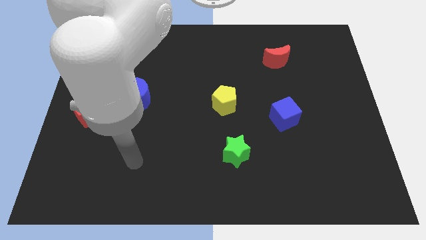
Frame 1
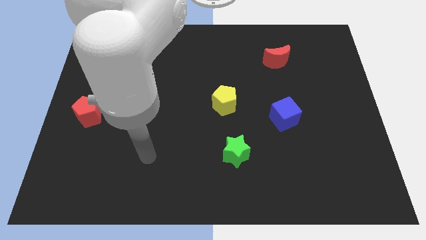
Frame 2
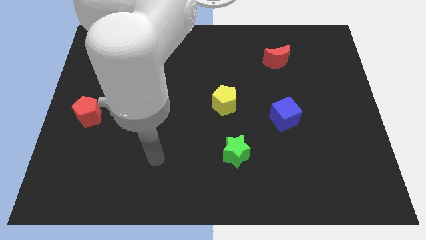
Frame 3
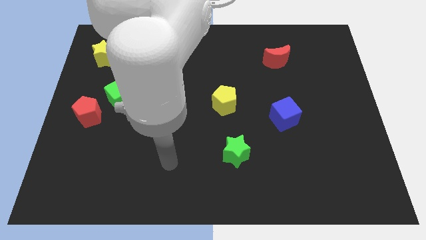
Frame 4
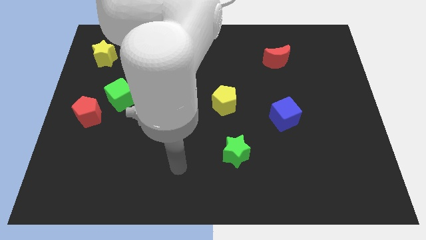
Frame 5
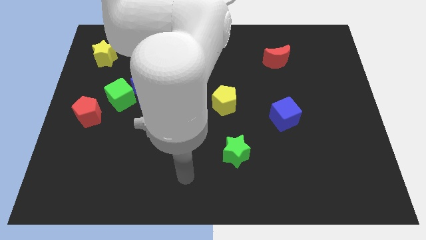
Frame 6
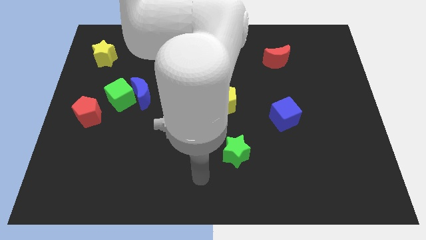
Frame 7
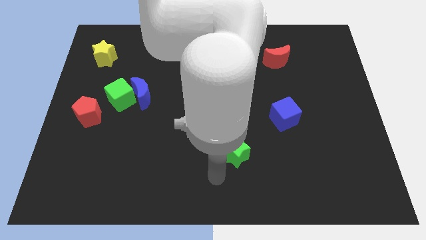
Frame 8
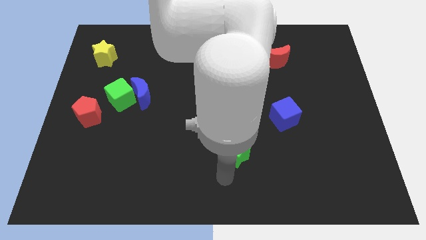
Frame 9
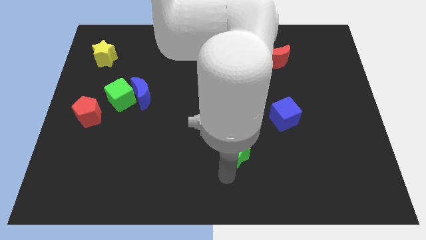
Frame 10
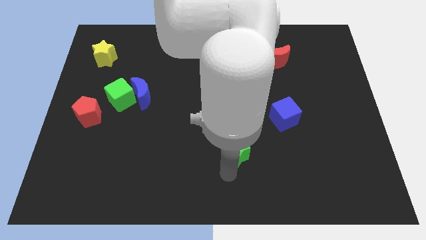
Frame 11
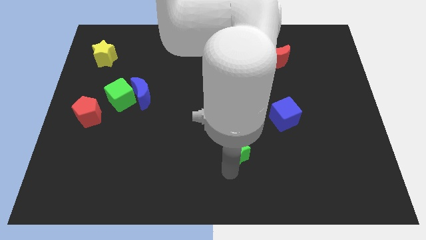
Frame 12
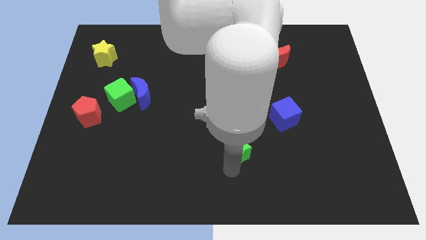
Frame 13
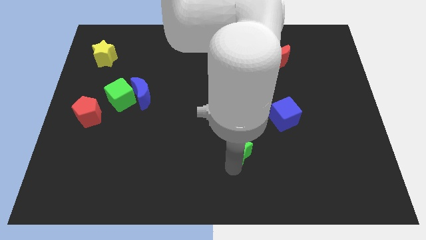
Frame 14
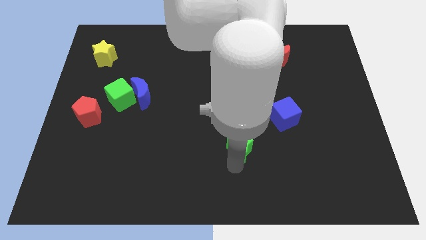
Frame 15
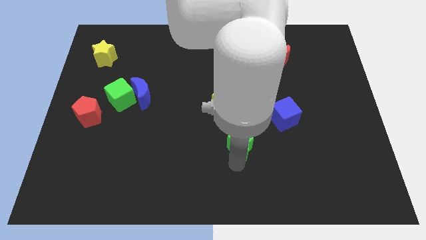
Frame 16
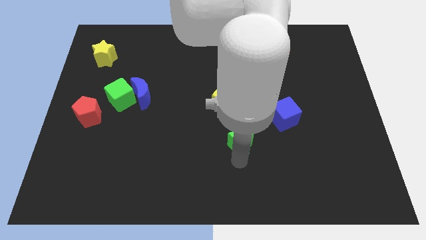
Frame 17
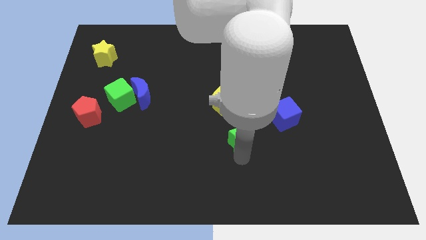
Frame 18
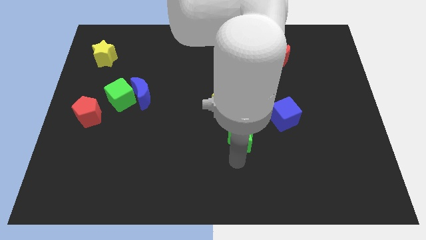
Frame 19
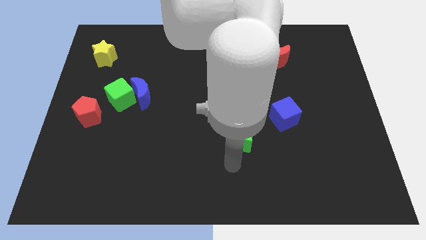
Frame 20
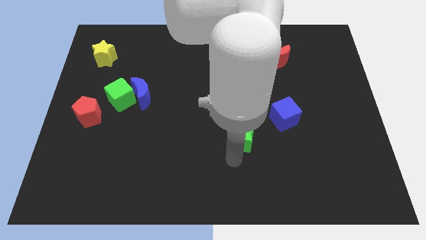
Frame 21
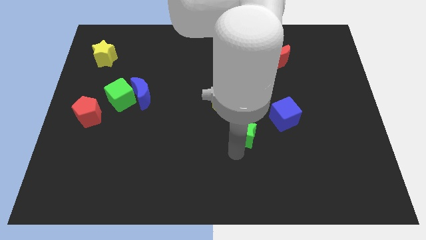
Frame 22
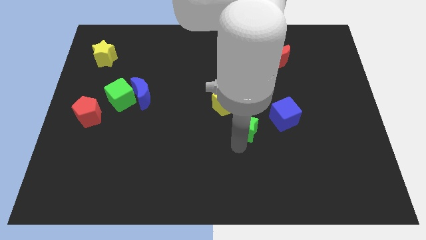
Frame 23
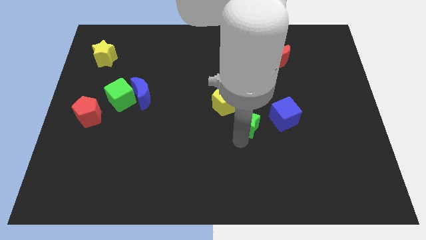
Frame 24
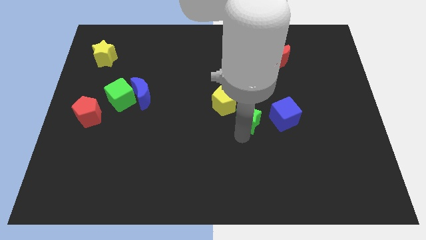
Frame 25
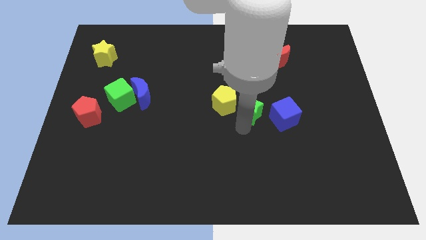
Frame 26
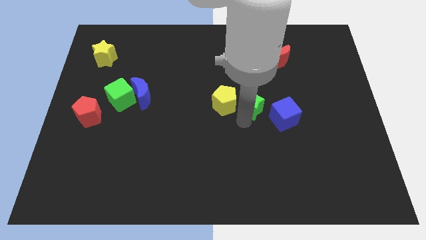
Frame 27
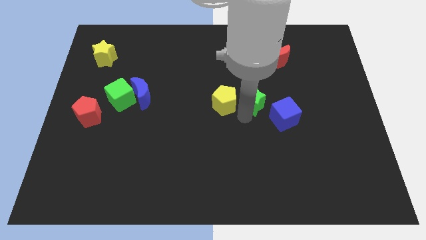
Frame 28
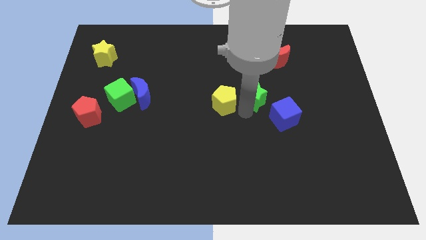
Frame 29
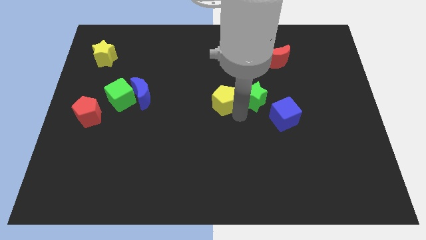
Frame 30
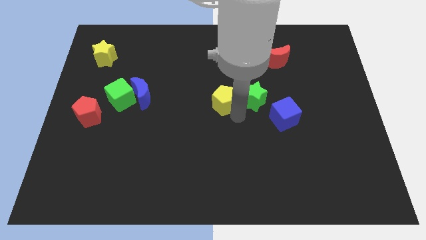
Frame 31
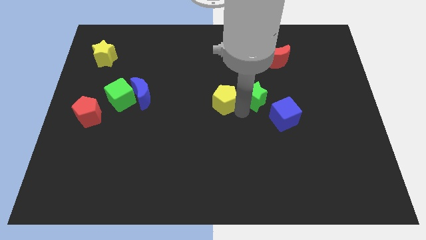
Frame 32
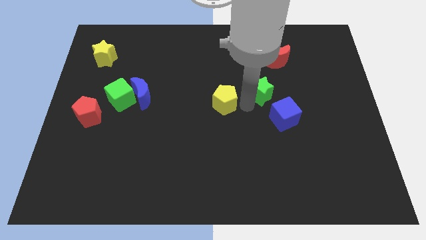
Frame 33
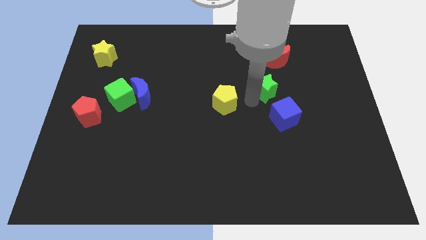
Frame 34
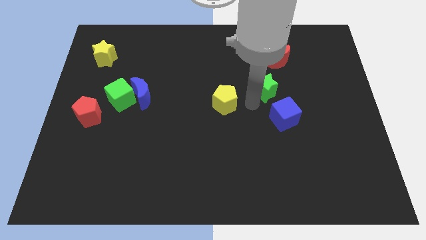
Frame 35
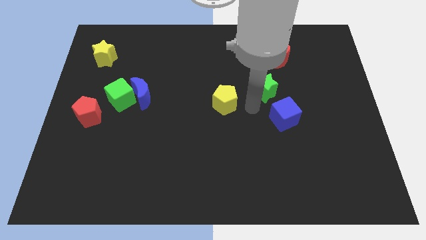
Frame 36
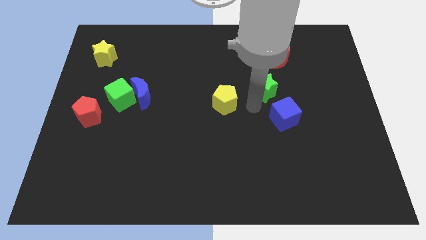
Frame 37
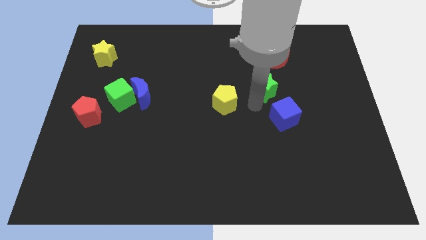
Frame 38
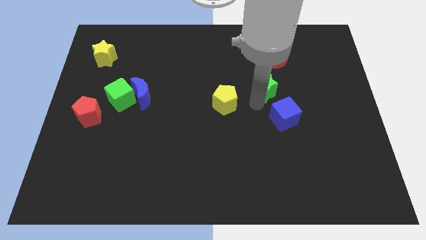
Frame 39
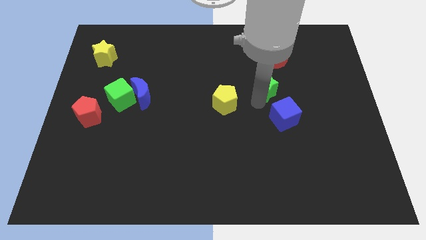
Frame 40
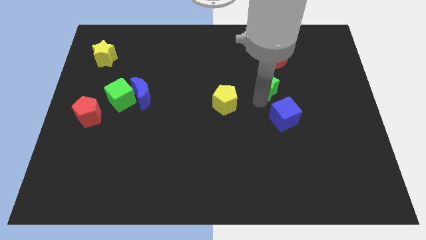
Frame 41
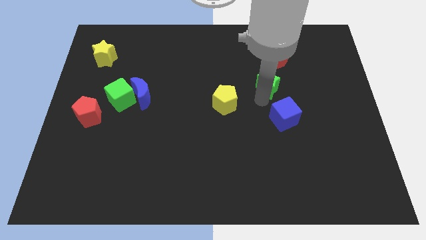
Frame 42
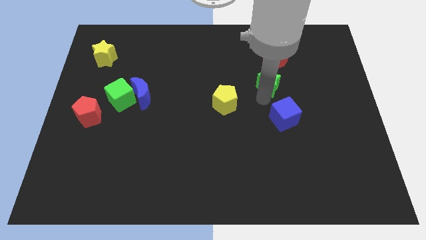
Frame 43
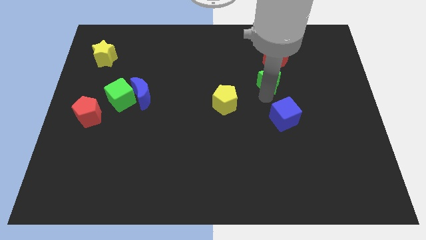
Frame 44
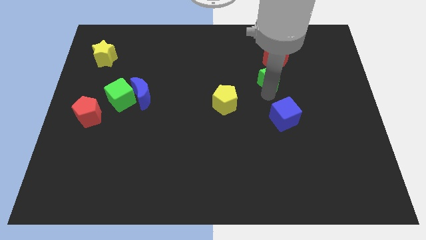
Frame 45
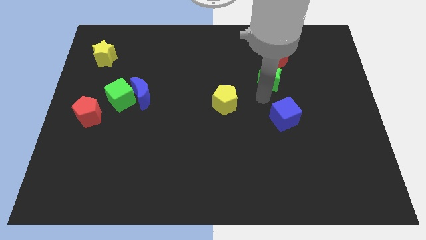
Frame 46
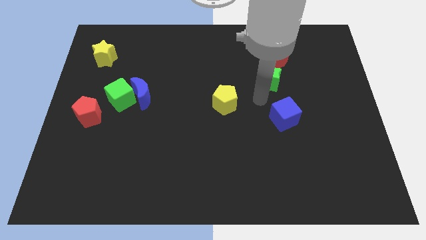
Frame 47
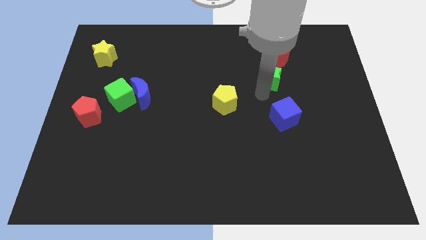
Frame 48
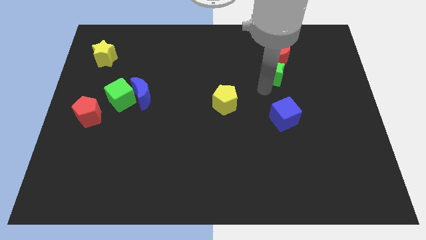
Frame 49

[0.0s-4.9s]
slide the green star next to the red moon

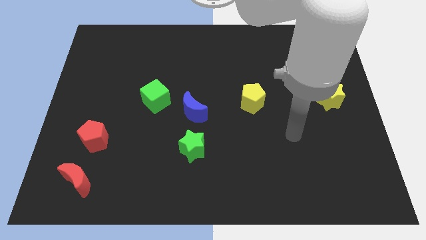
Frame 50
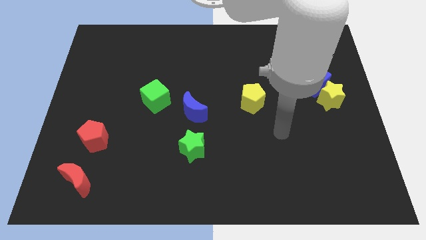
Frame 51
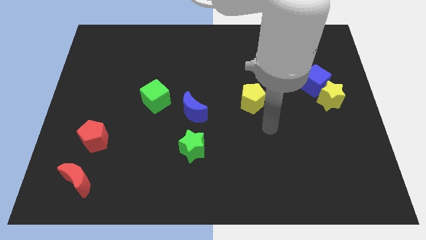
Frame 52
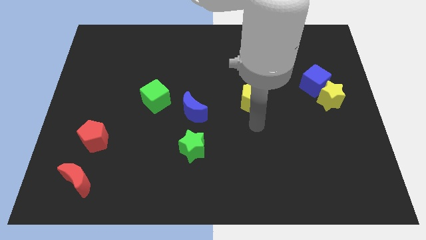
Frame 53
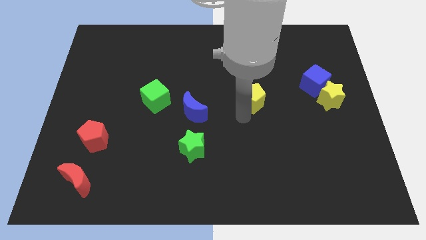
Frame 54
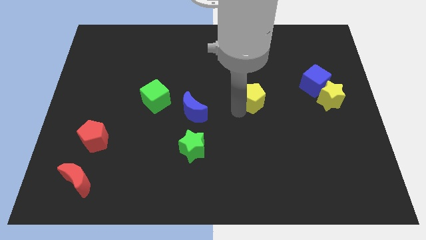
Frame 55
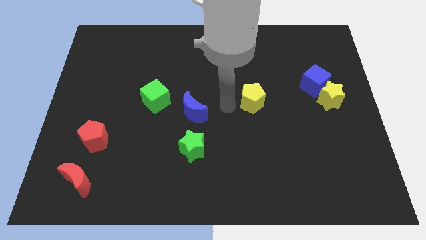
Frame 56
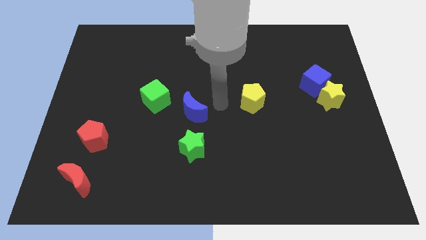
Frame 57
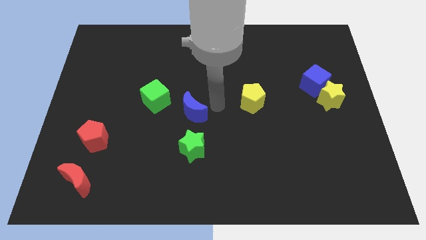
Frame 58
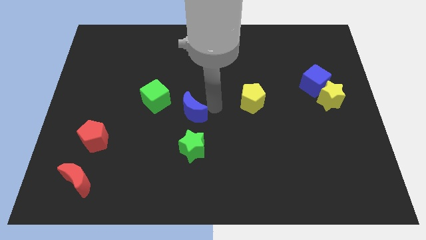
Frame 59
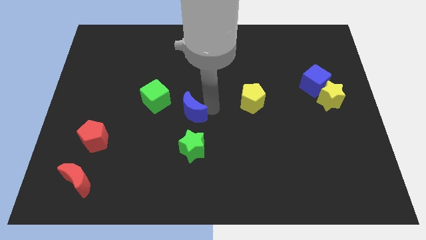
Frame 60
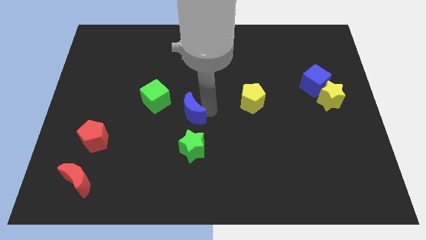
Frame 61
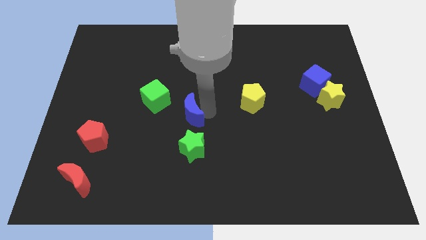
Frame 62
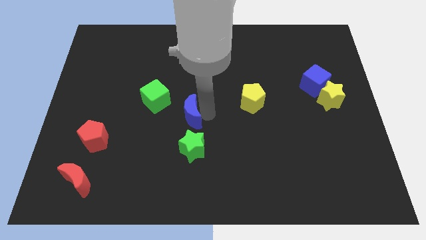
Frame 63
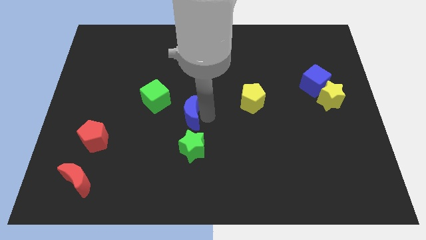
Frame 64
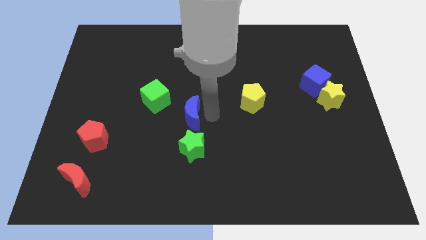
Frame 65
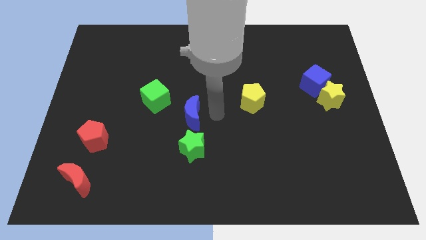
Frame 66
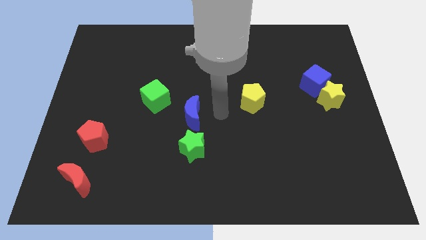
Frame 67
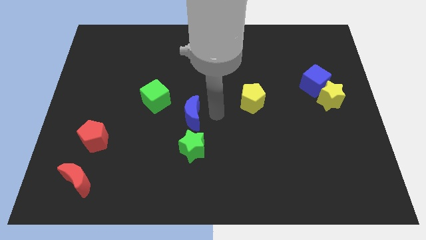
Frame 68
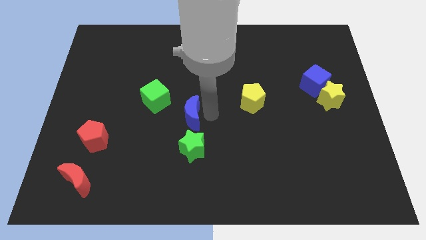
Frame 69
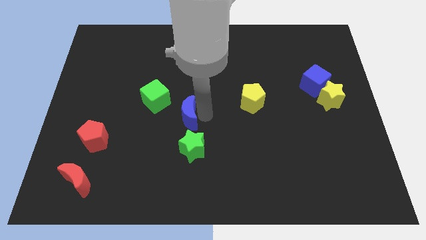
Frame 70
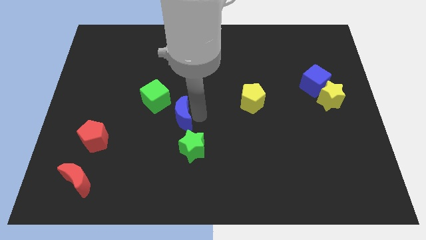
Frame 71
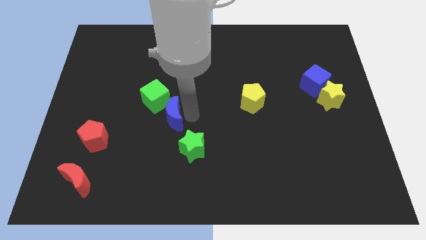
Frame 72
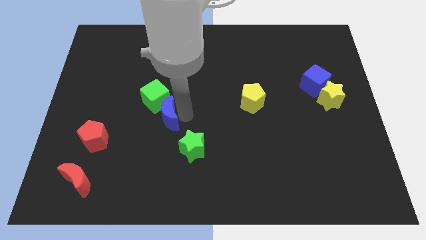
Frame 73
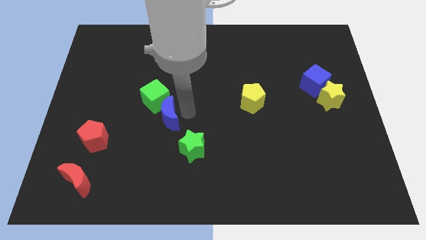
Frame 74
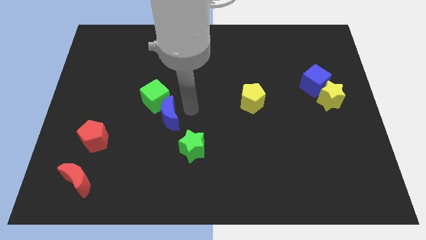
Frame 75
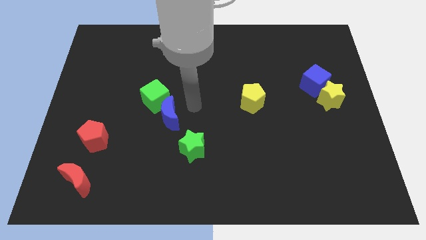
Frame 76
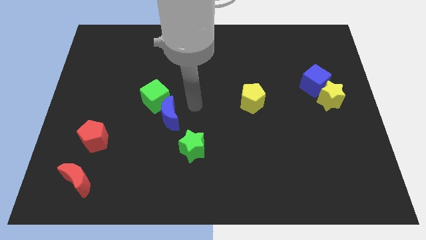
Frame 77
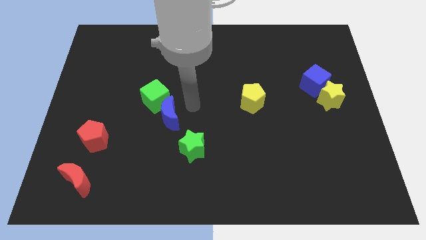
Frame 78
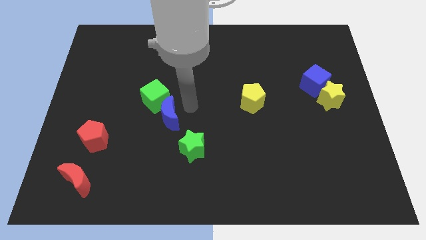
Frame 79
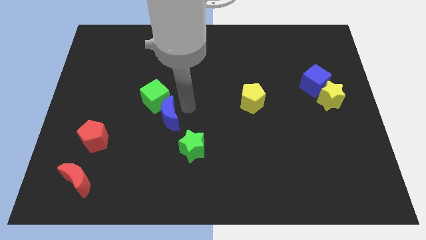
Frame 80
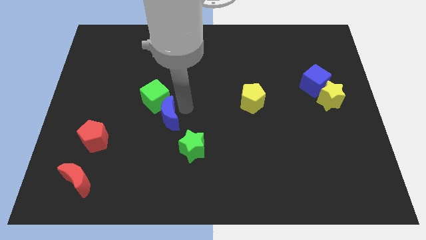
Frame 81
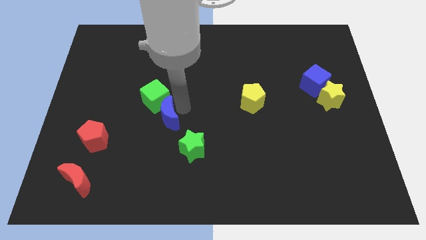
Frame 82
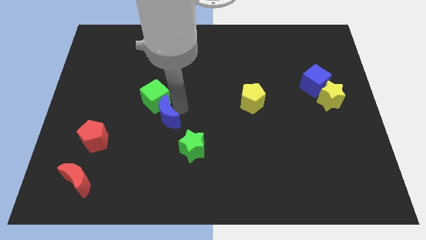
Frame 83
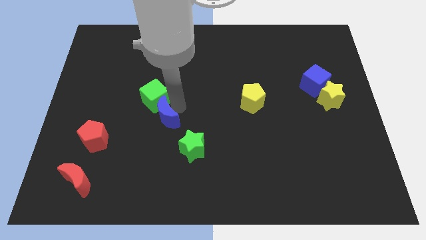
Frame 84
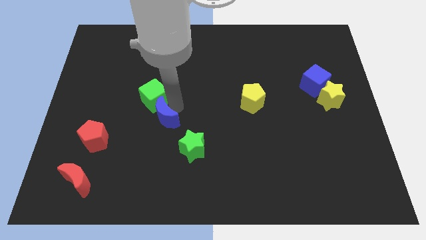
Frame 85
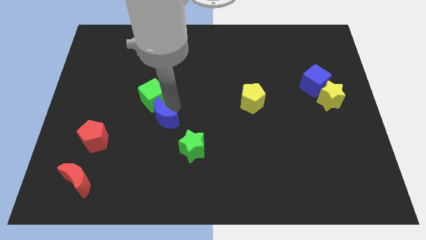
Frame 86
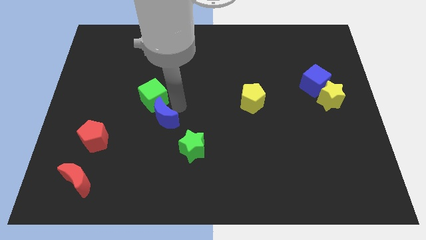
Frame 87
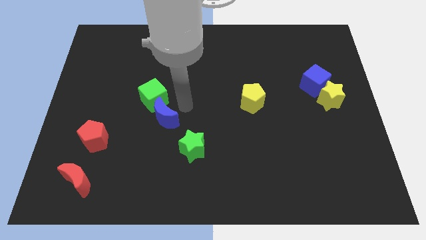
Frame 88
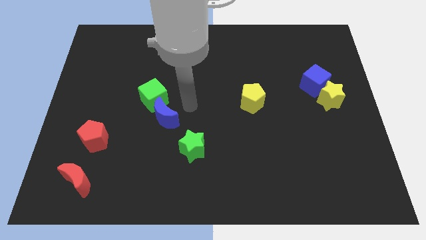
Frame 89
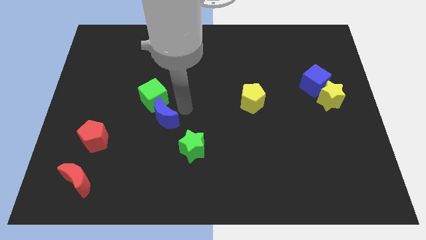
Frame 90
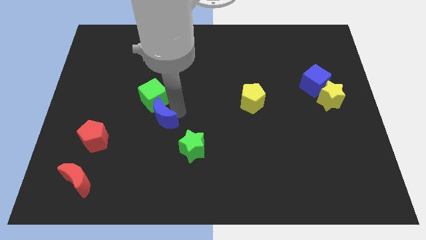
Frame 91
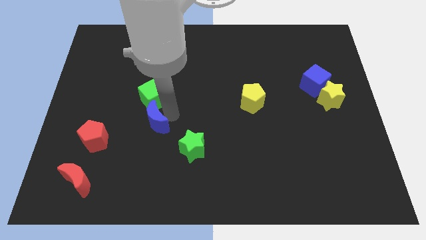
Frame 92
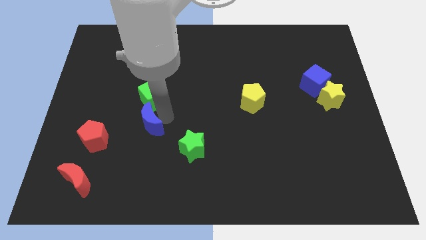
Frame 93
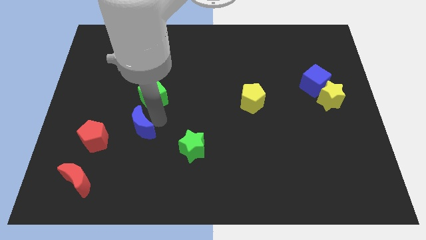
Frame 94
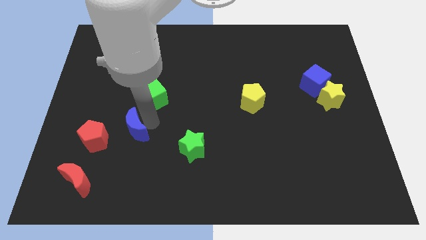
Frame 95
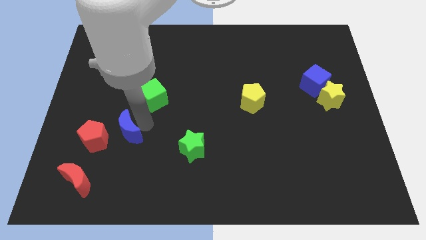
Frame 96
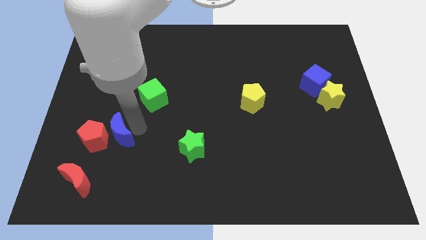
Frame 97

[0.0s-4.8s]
move the blue moon towards the red pentagon
